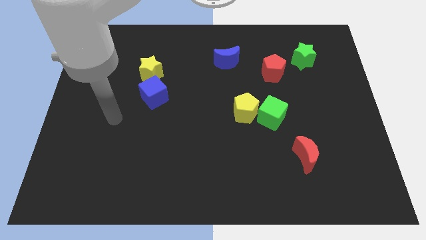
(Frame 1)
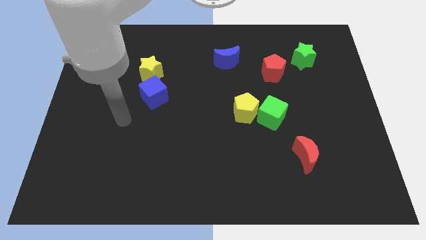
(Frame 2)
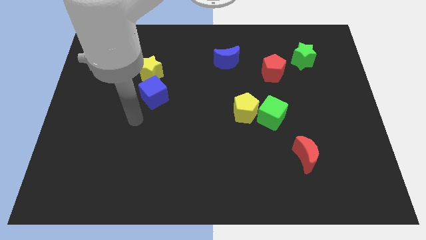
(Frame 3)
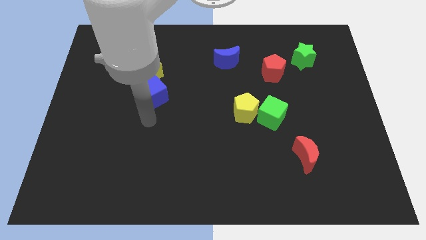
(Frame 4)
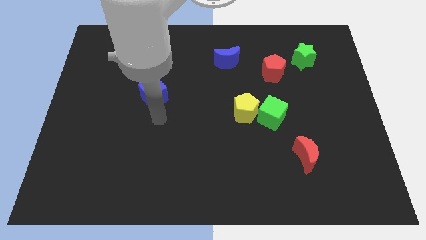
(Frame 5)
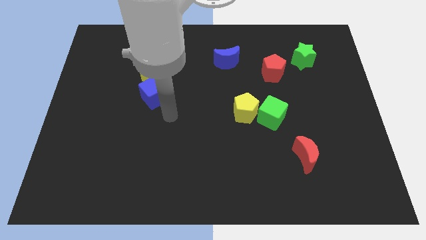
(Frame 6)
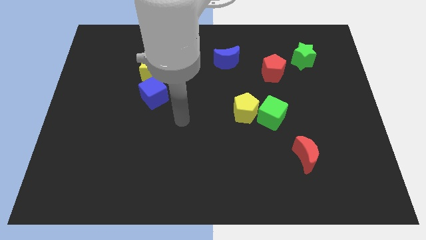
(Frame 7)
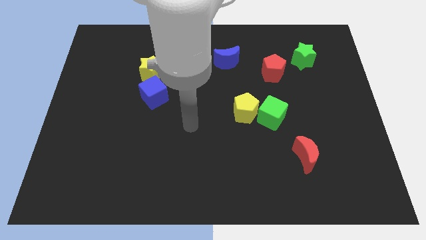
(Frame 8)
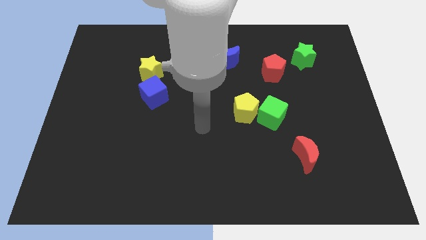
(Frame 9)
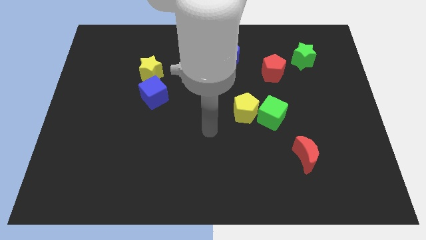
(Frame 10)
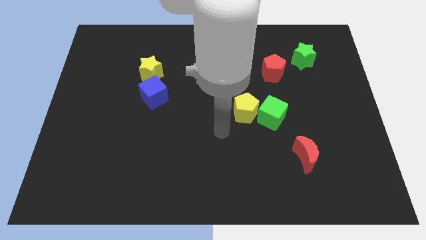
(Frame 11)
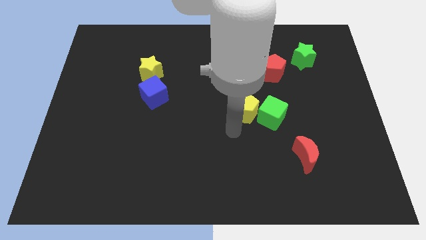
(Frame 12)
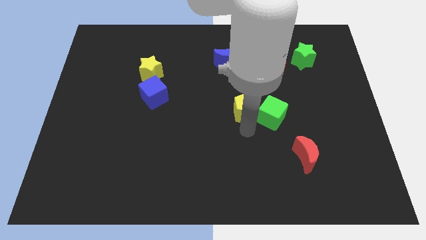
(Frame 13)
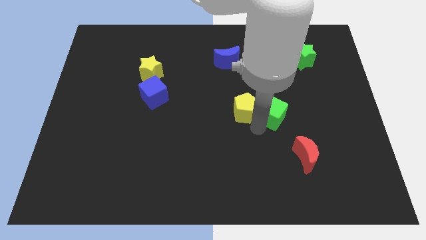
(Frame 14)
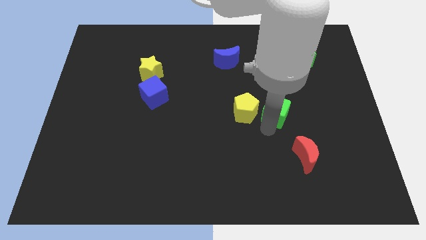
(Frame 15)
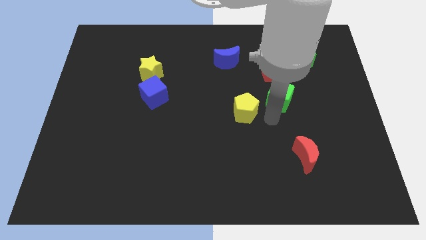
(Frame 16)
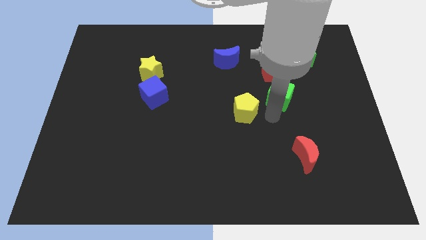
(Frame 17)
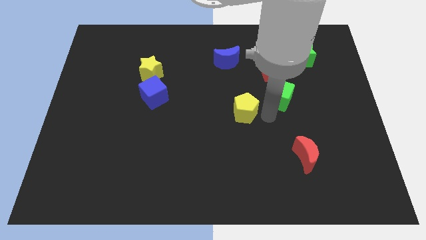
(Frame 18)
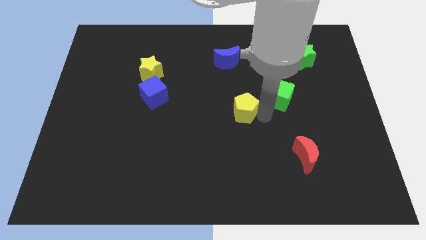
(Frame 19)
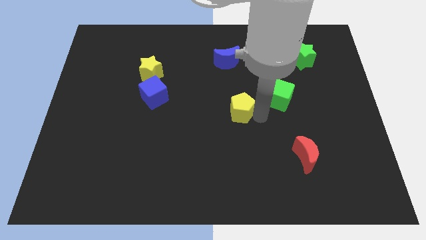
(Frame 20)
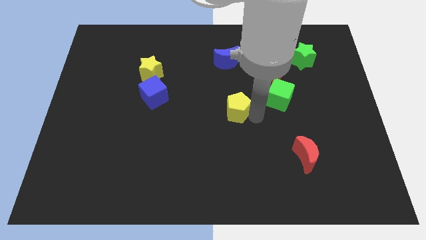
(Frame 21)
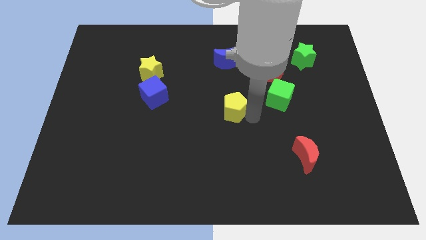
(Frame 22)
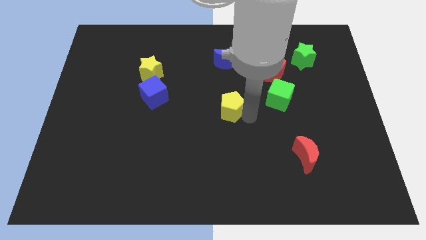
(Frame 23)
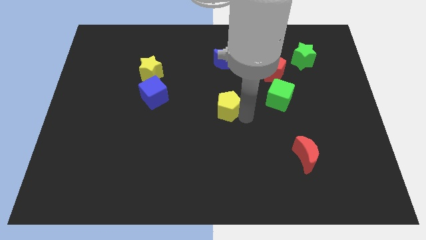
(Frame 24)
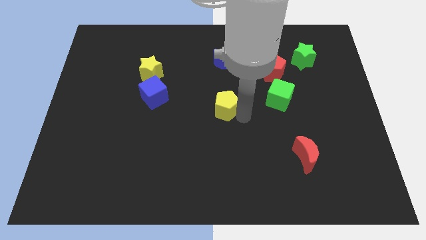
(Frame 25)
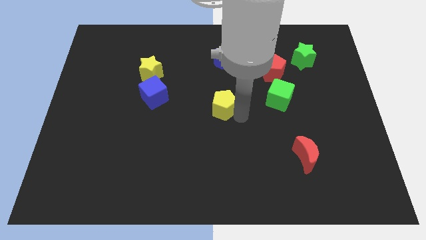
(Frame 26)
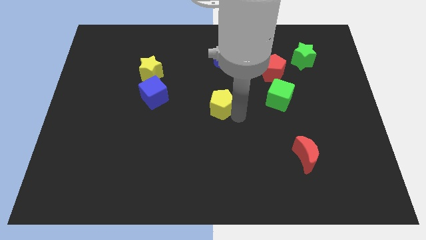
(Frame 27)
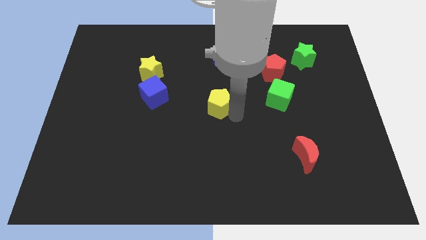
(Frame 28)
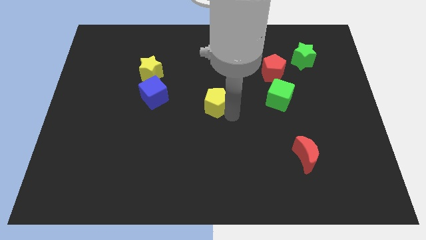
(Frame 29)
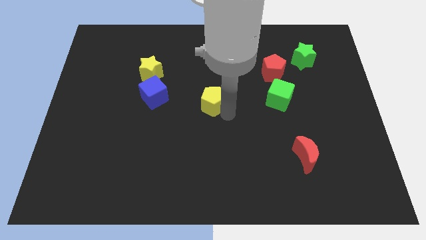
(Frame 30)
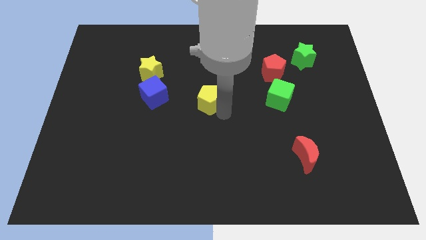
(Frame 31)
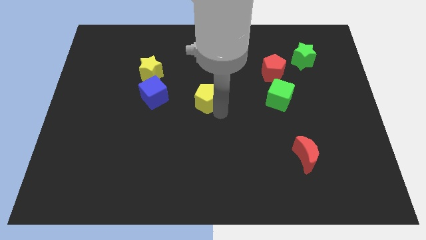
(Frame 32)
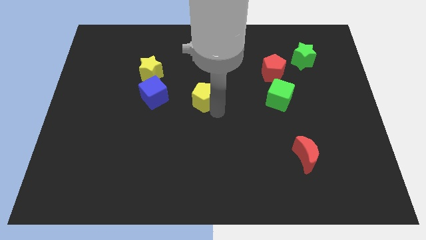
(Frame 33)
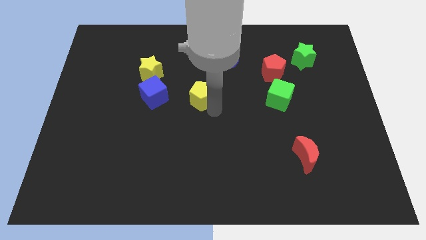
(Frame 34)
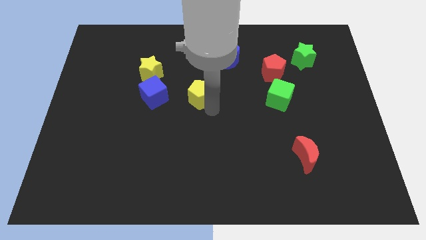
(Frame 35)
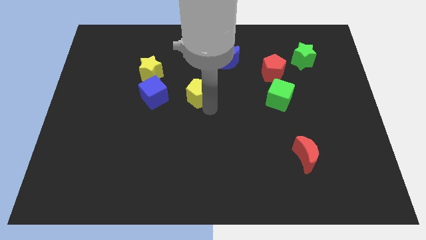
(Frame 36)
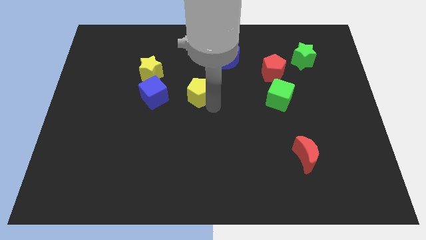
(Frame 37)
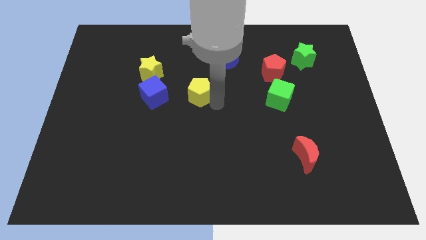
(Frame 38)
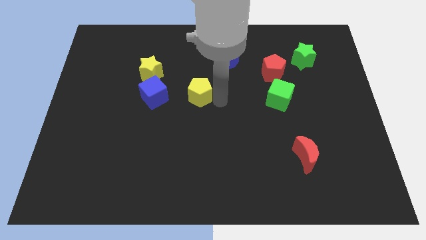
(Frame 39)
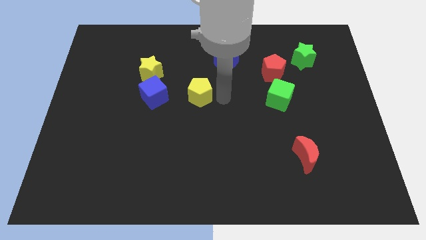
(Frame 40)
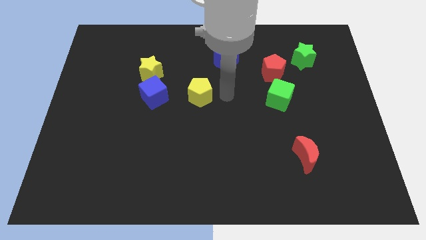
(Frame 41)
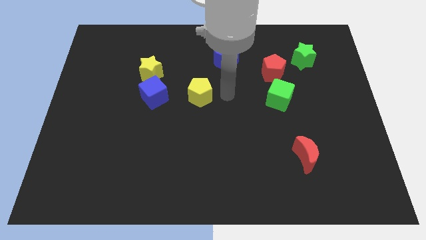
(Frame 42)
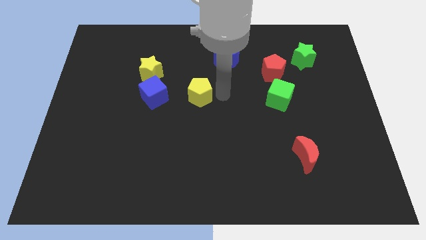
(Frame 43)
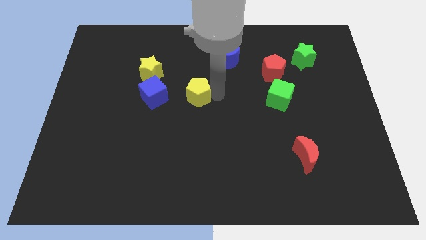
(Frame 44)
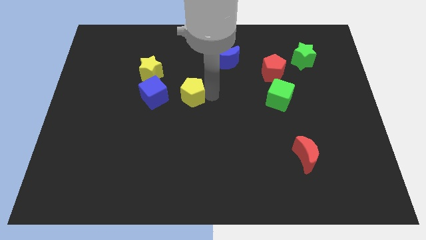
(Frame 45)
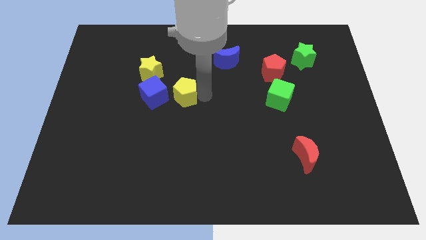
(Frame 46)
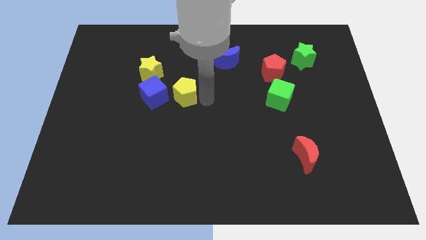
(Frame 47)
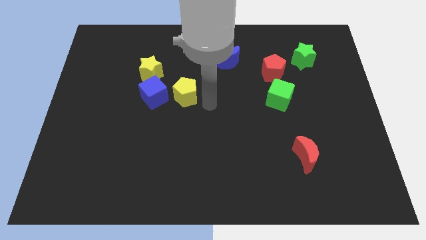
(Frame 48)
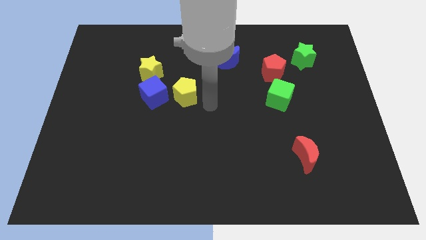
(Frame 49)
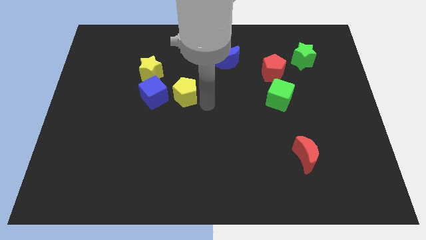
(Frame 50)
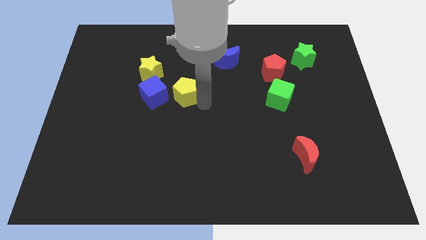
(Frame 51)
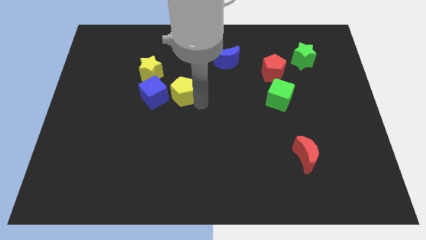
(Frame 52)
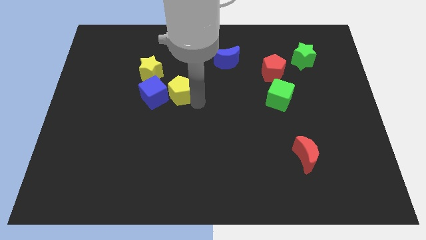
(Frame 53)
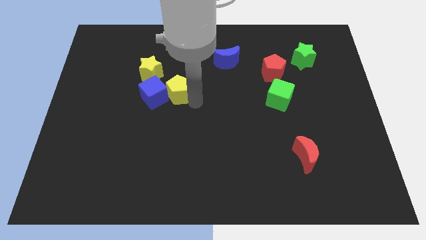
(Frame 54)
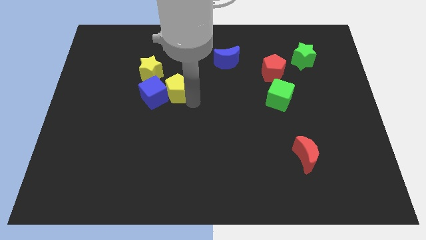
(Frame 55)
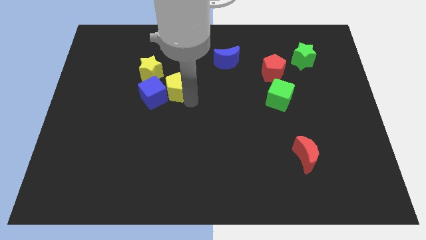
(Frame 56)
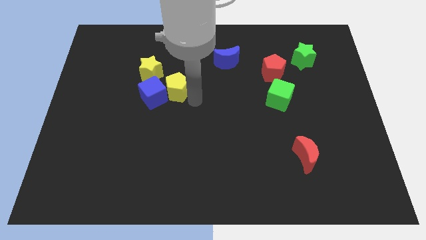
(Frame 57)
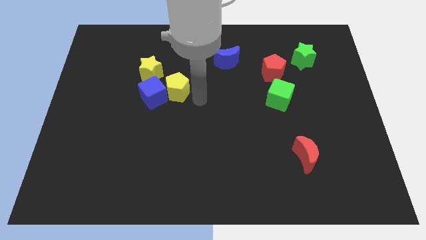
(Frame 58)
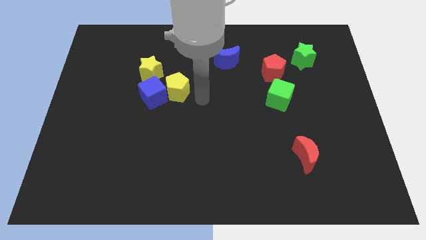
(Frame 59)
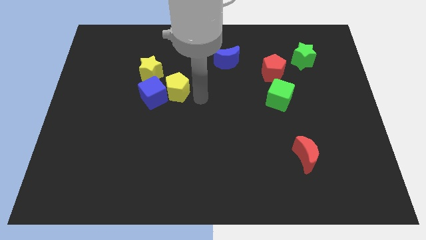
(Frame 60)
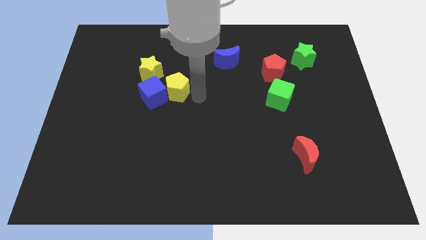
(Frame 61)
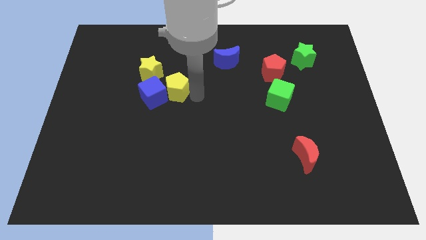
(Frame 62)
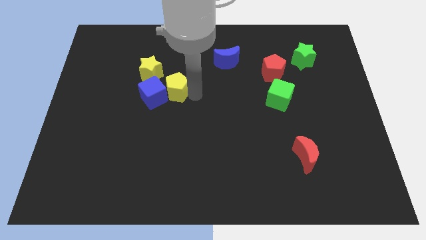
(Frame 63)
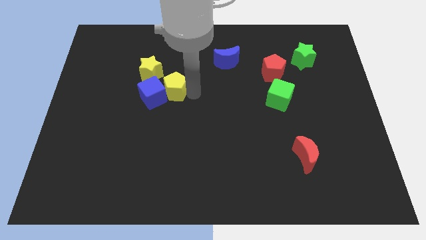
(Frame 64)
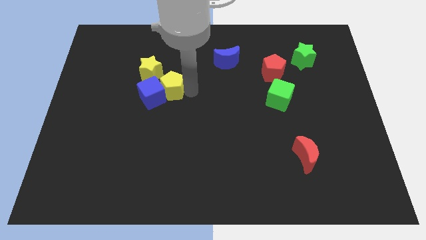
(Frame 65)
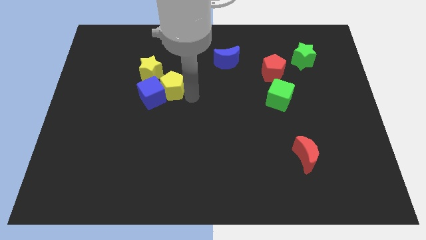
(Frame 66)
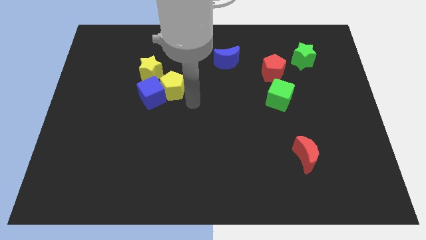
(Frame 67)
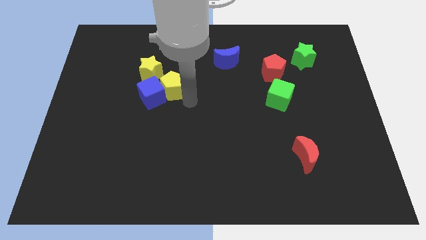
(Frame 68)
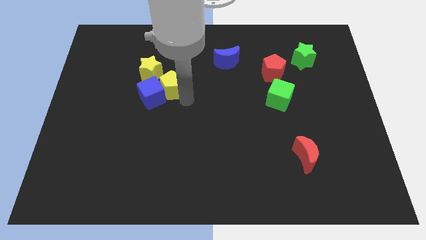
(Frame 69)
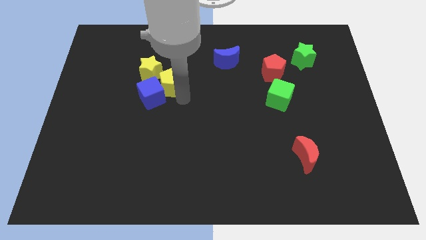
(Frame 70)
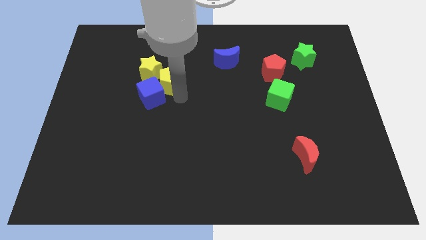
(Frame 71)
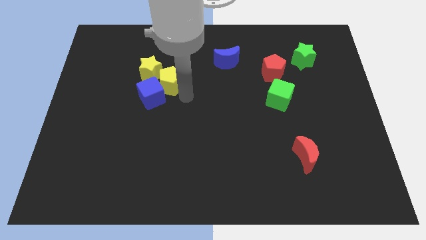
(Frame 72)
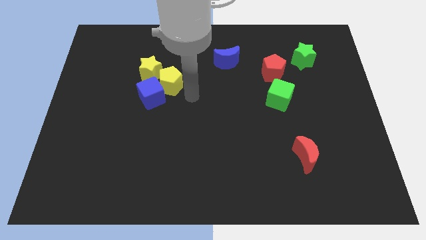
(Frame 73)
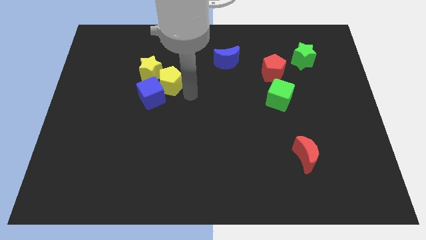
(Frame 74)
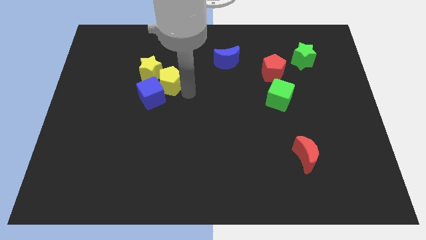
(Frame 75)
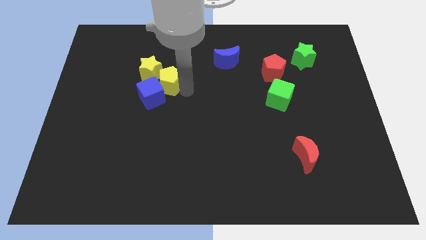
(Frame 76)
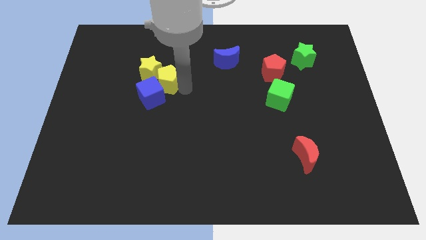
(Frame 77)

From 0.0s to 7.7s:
put the yellow pentagon next to the yellow star

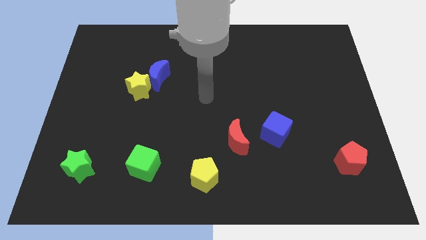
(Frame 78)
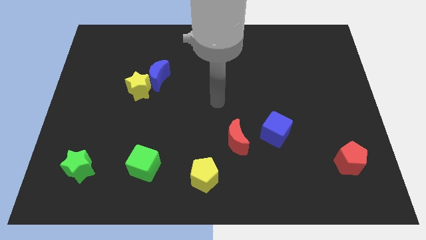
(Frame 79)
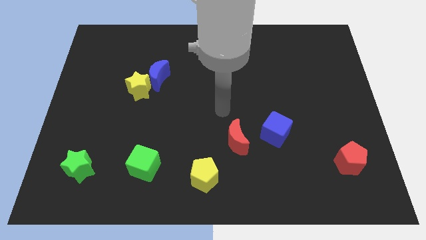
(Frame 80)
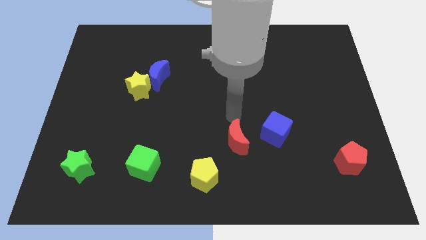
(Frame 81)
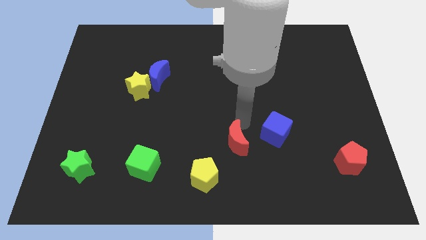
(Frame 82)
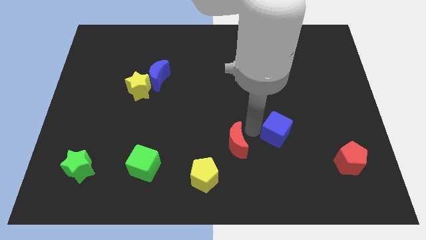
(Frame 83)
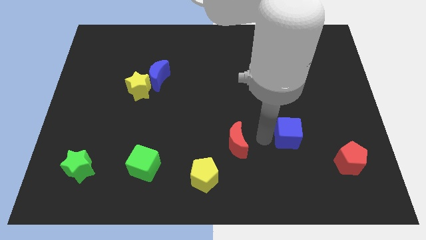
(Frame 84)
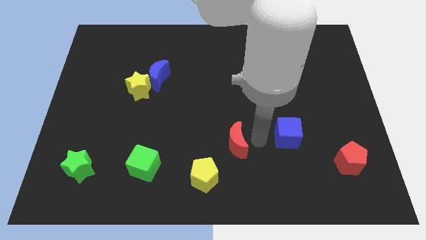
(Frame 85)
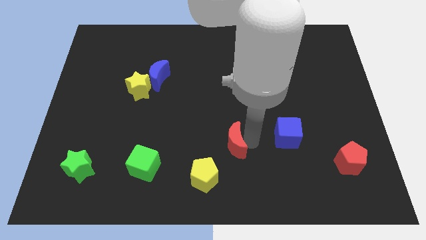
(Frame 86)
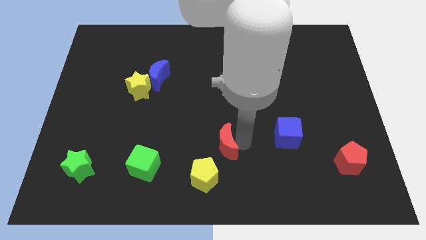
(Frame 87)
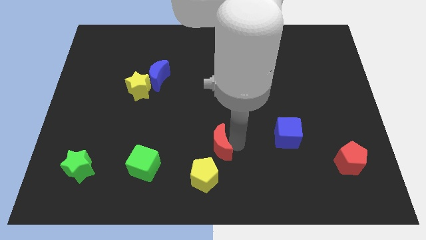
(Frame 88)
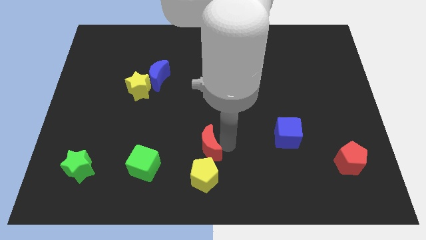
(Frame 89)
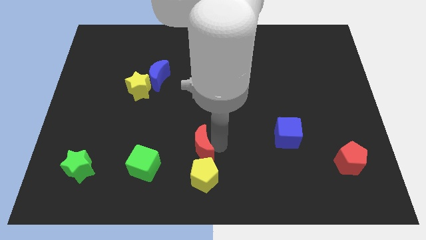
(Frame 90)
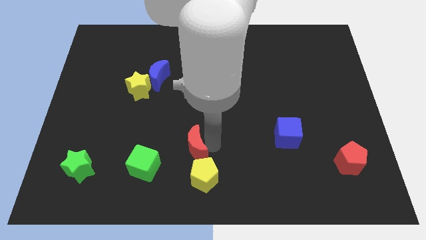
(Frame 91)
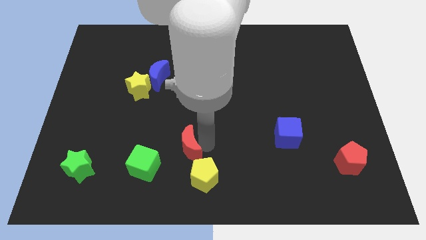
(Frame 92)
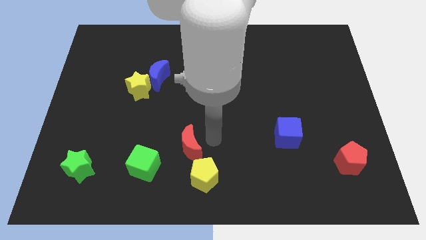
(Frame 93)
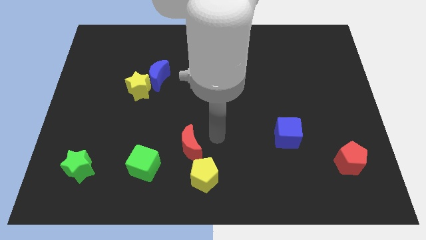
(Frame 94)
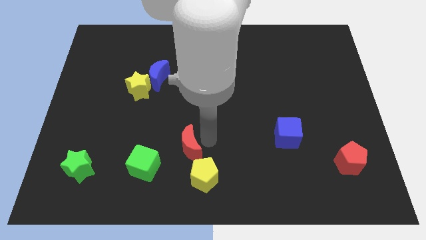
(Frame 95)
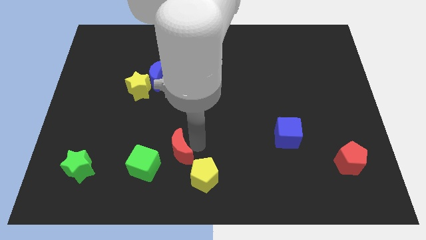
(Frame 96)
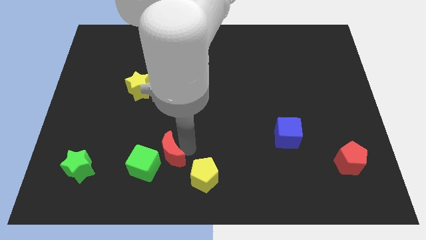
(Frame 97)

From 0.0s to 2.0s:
move the red moon towards the green cube
